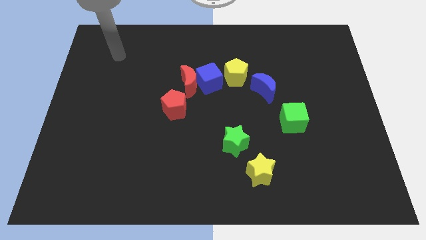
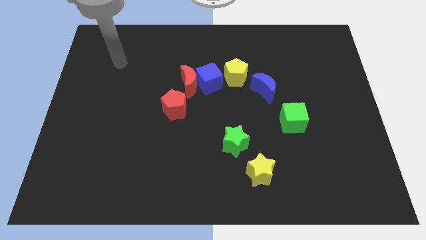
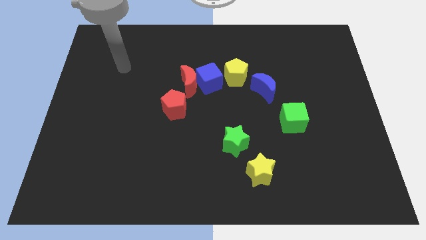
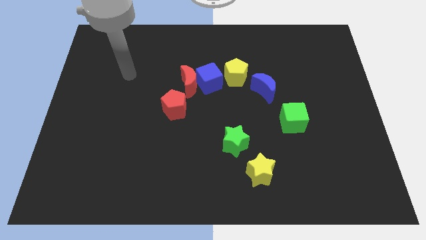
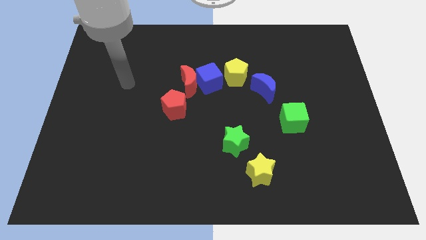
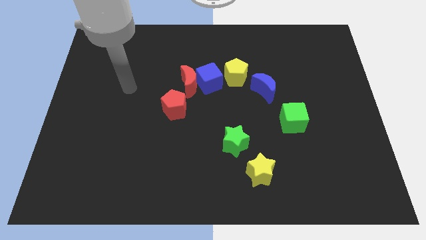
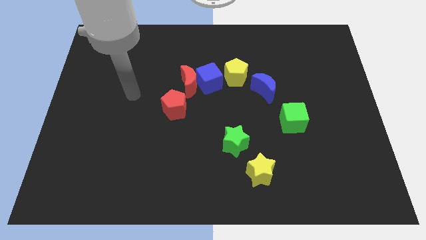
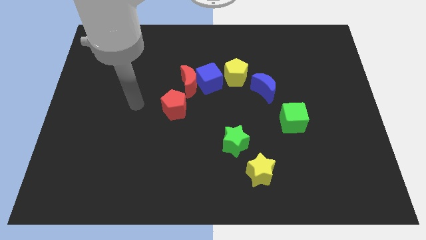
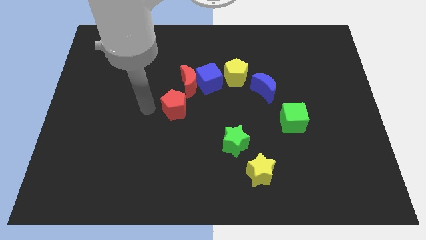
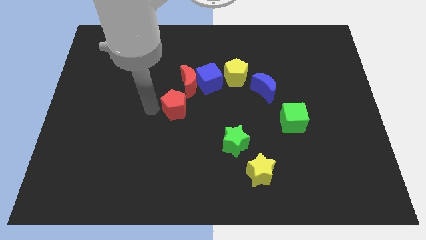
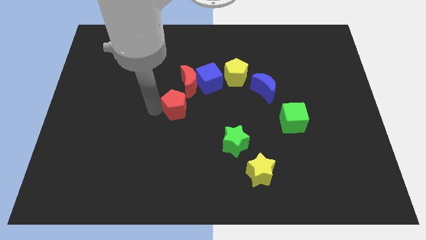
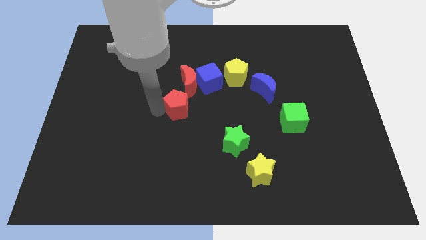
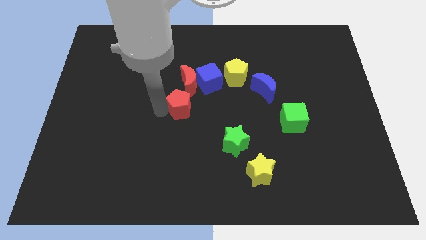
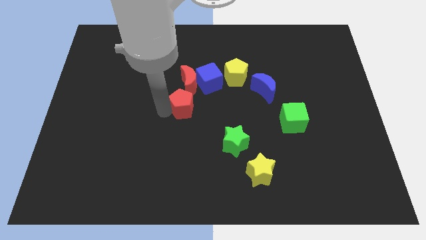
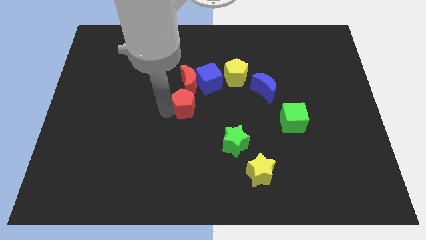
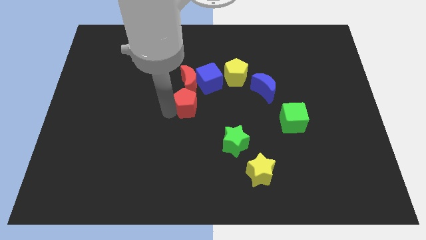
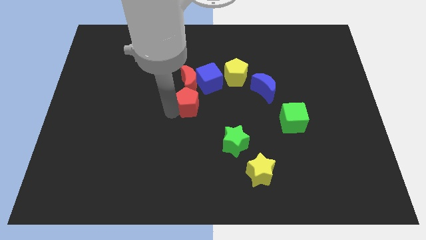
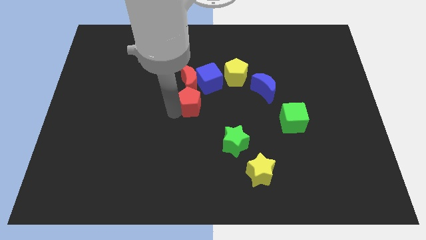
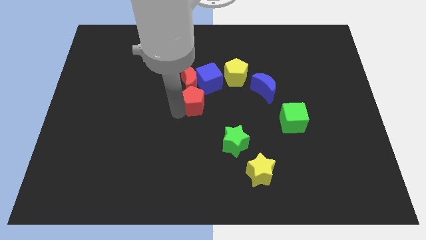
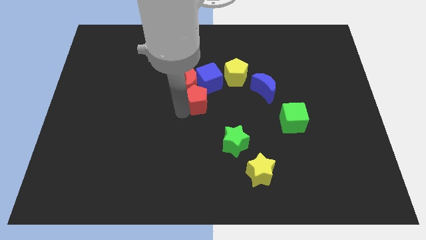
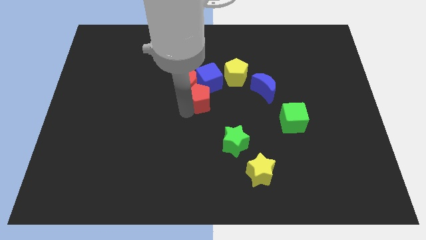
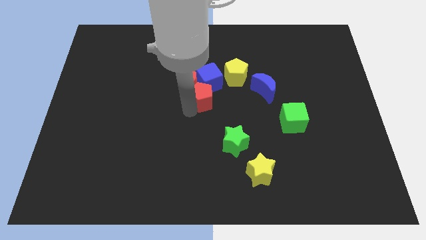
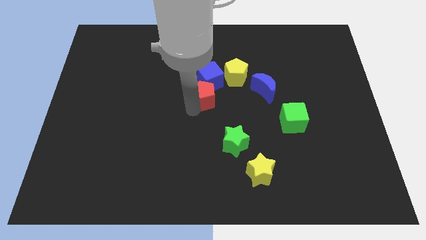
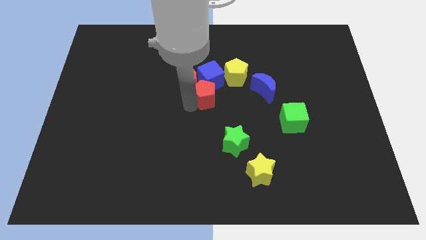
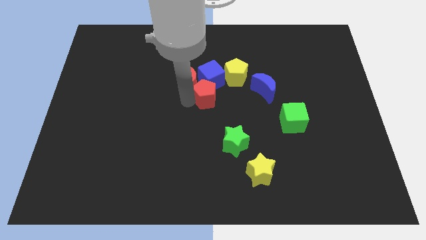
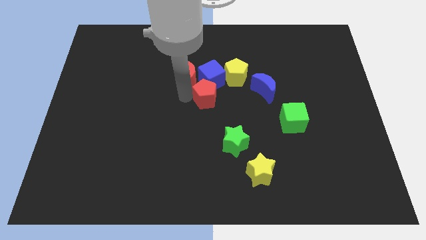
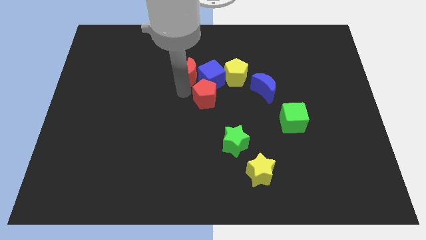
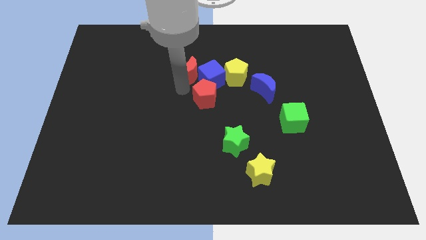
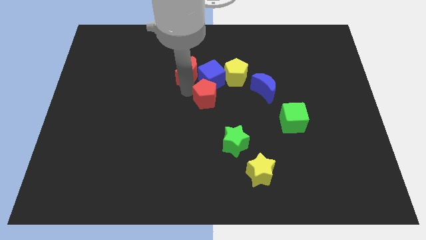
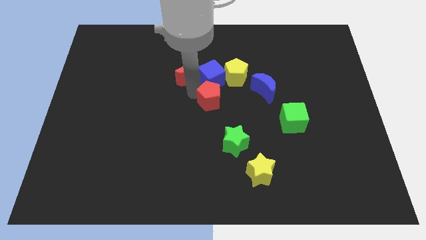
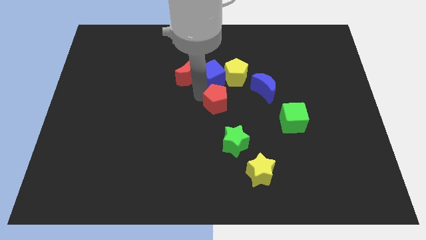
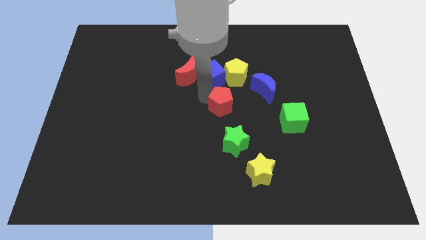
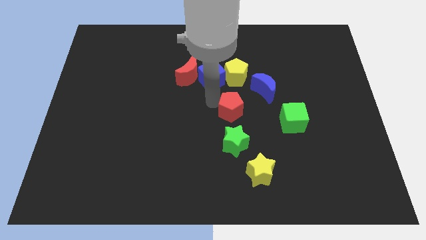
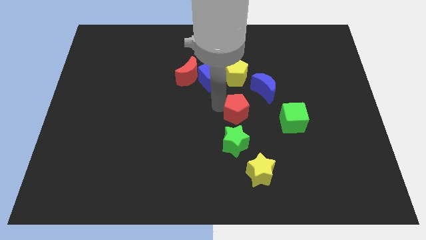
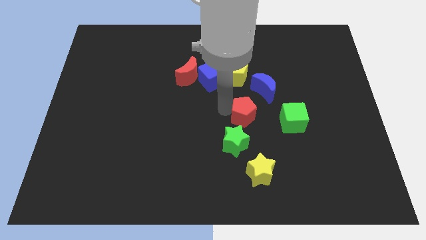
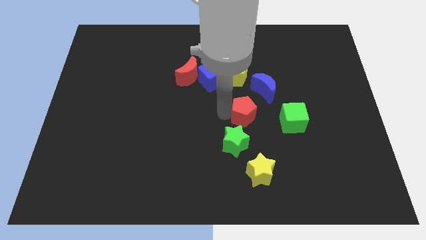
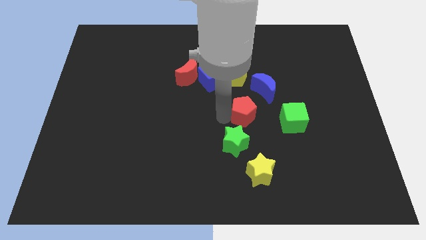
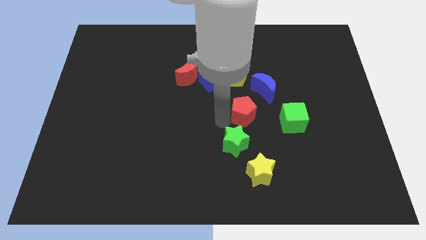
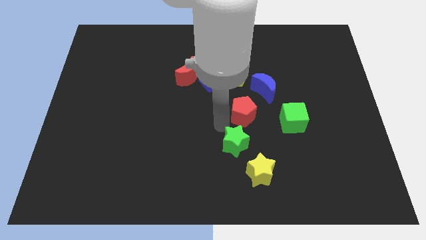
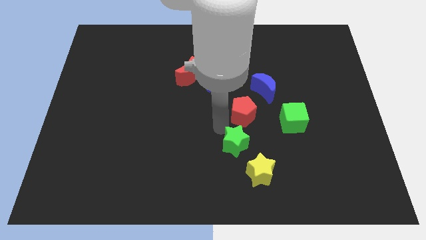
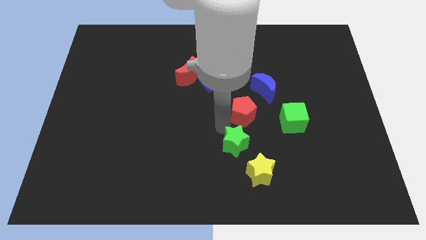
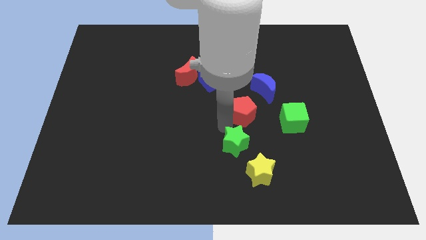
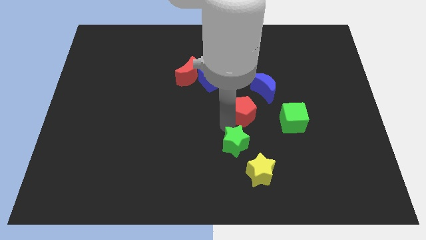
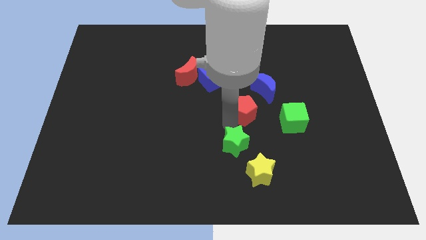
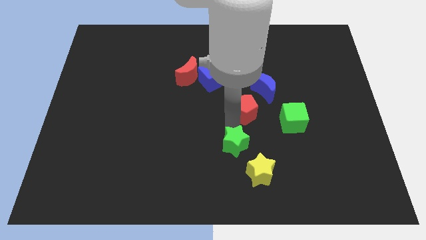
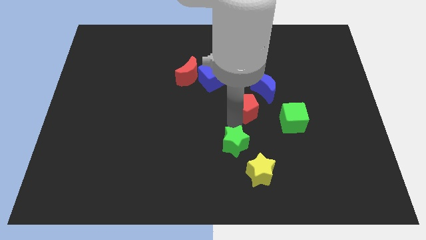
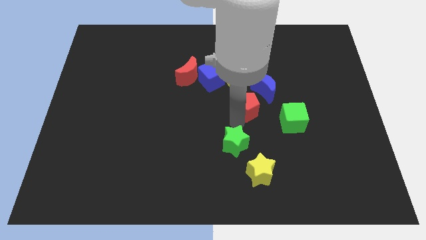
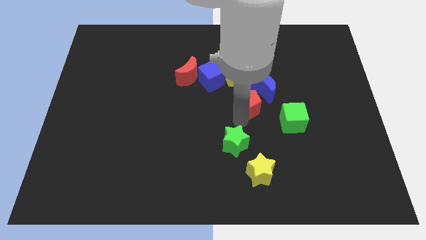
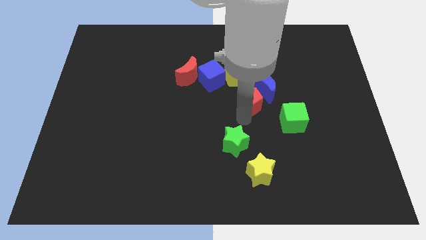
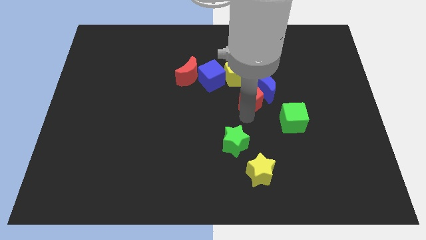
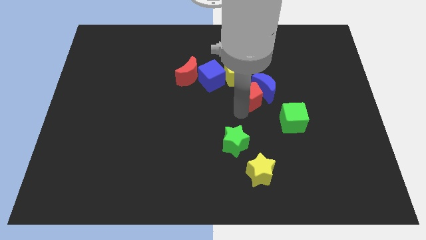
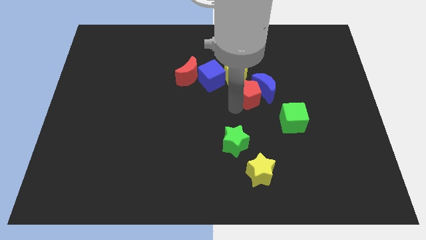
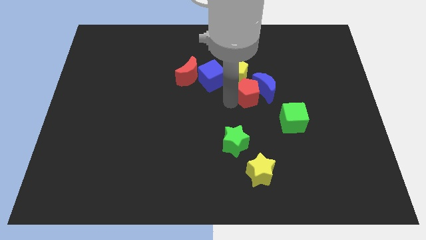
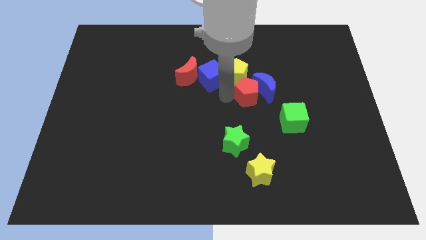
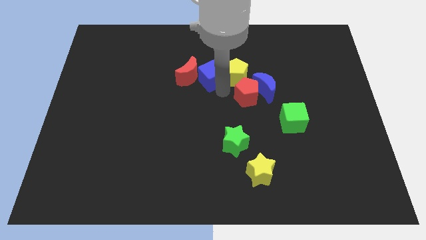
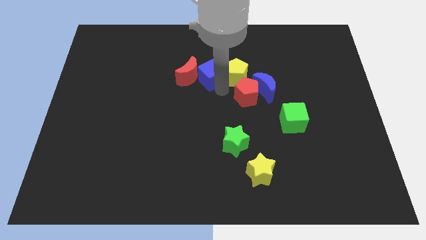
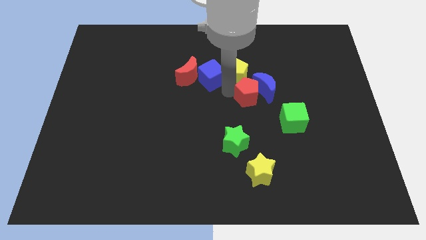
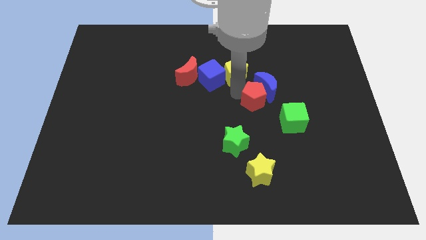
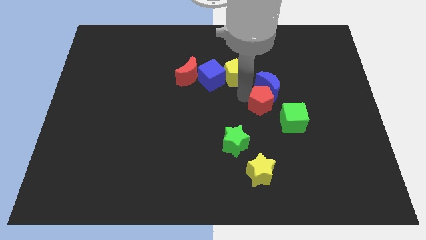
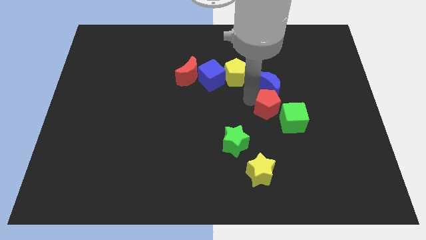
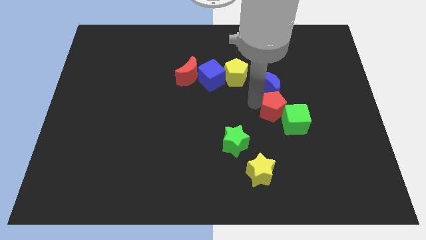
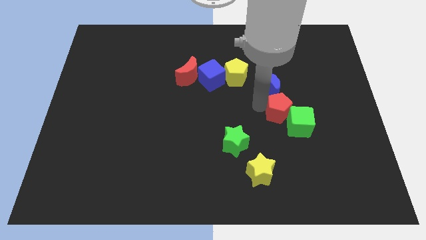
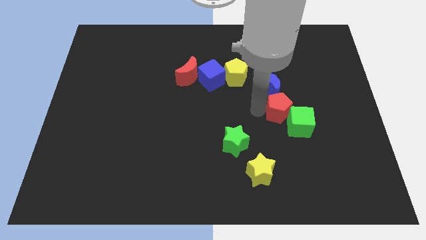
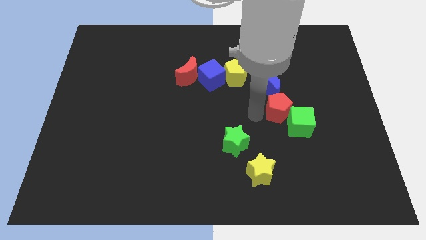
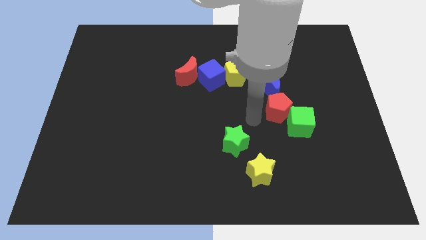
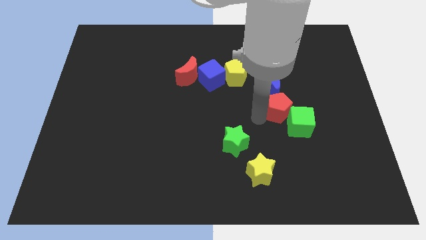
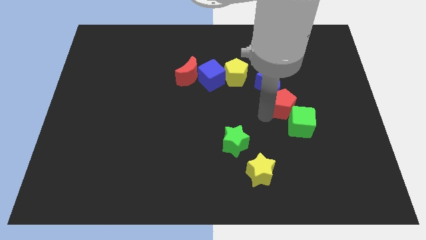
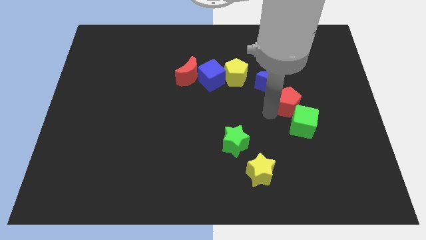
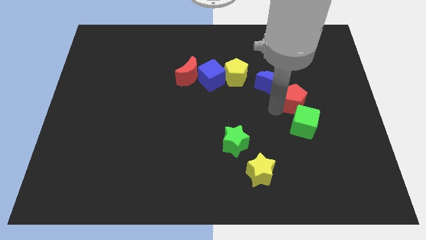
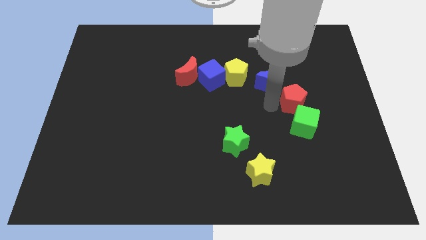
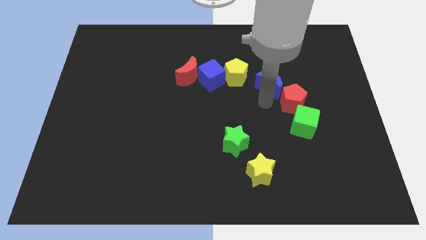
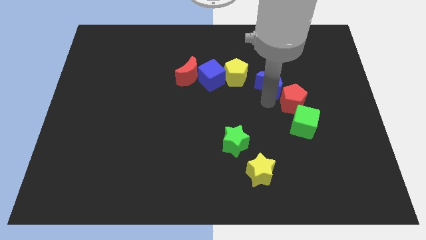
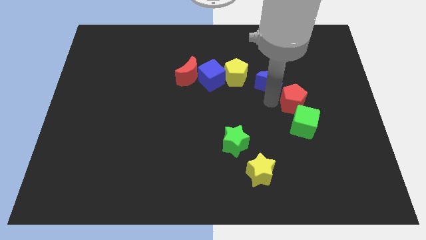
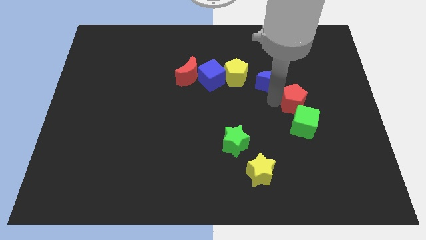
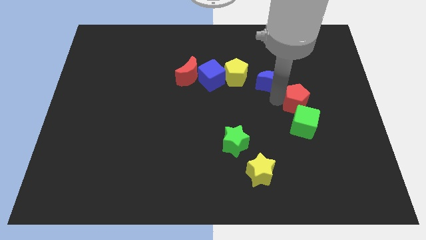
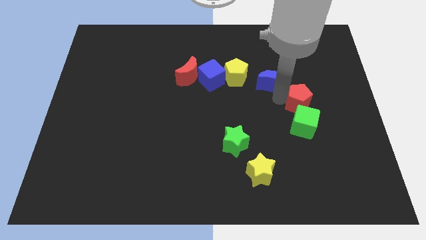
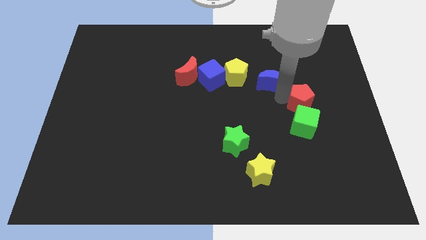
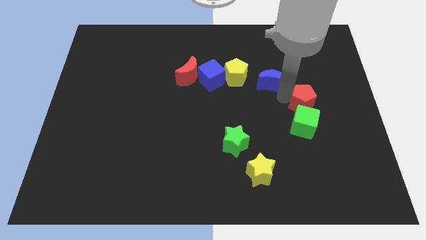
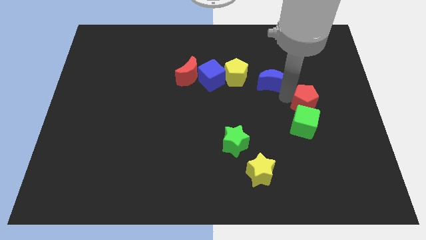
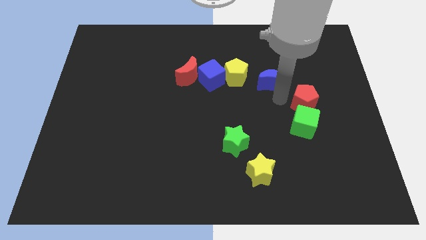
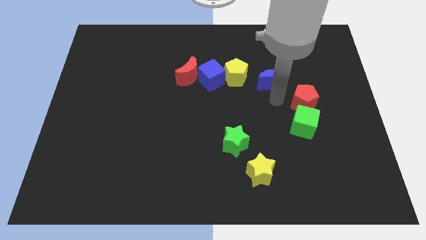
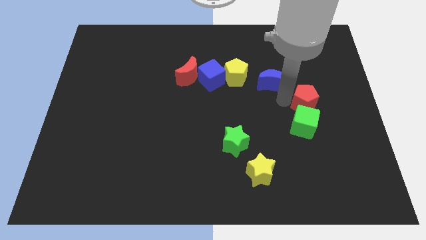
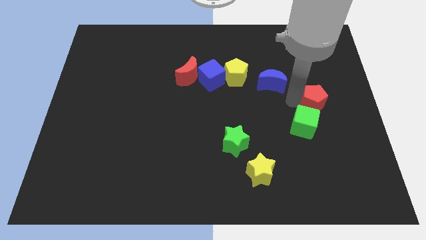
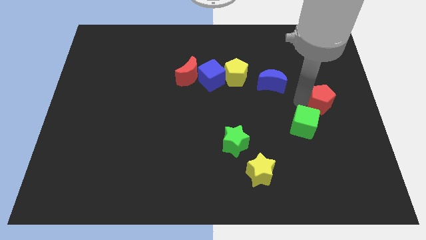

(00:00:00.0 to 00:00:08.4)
push the red pentagon to the right side of the board
